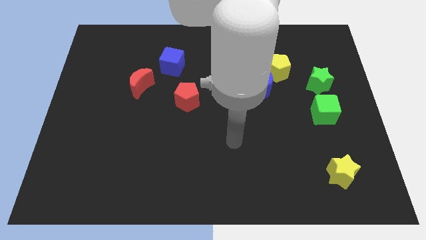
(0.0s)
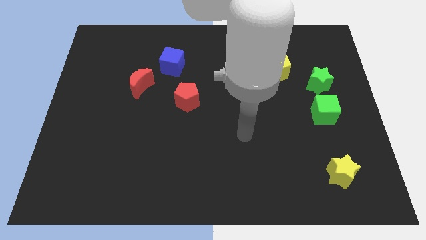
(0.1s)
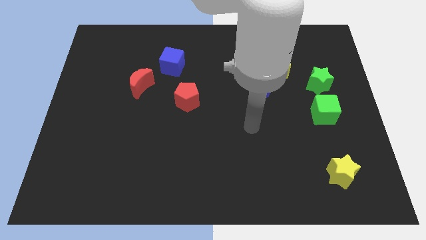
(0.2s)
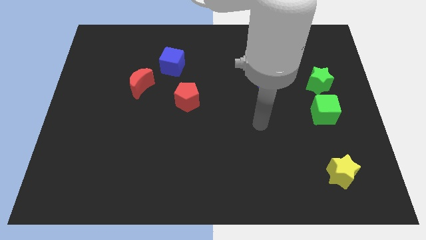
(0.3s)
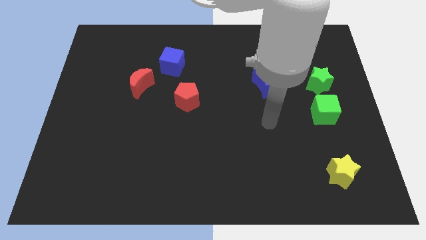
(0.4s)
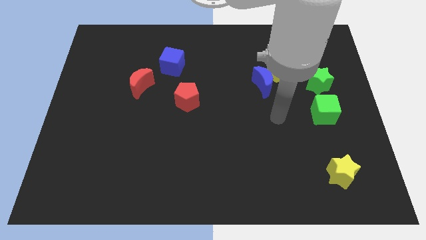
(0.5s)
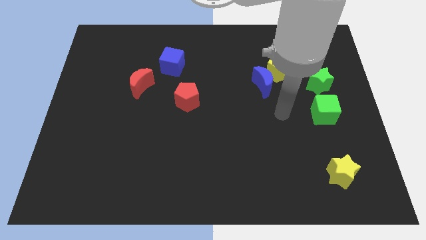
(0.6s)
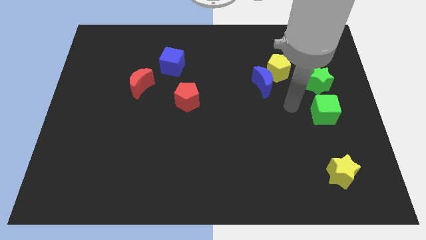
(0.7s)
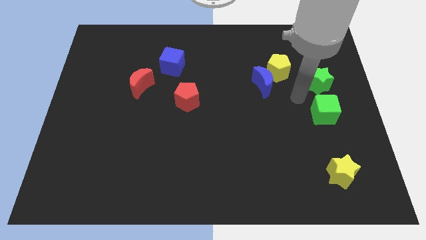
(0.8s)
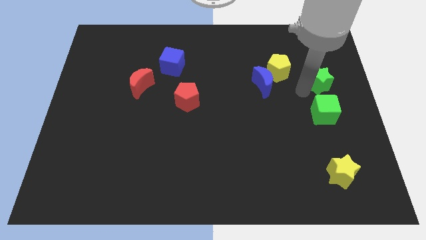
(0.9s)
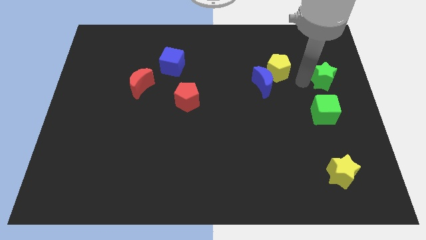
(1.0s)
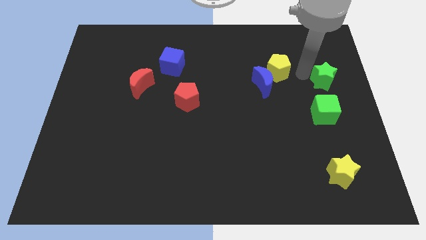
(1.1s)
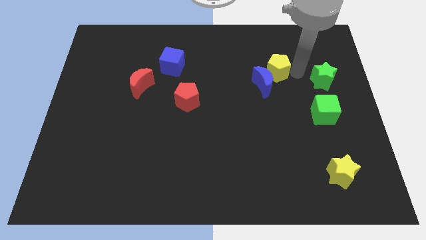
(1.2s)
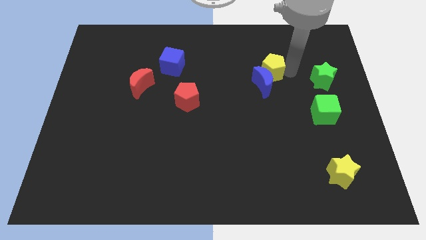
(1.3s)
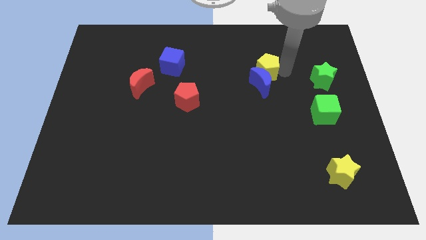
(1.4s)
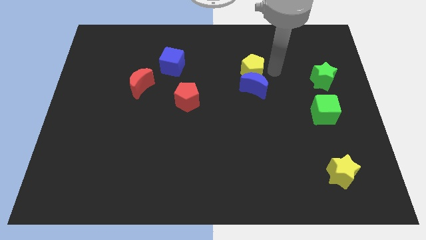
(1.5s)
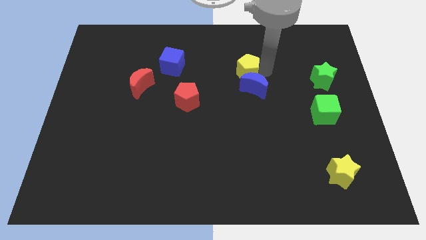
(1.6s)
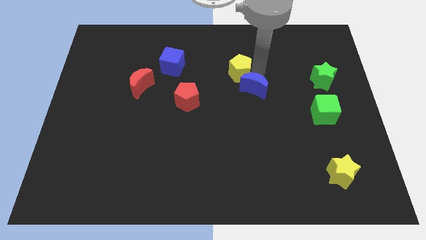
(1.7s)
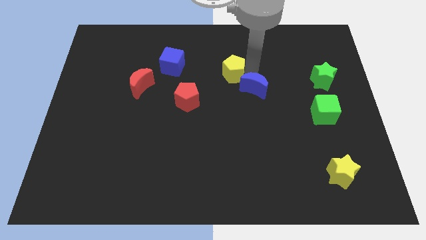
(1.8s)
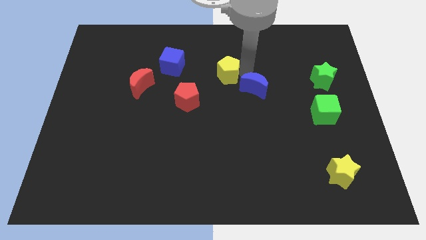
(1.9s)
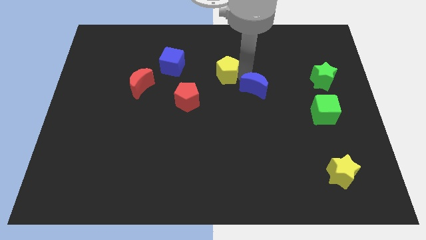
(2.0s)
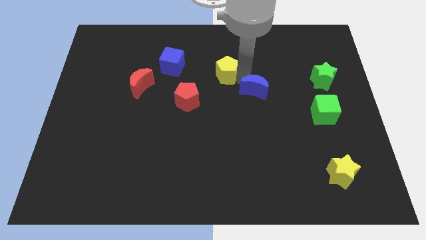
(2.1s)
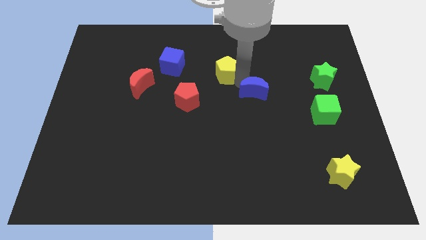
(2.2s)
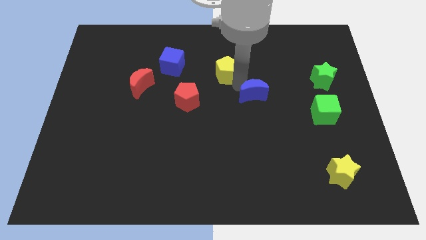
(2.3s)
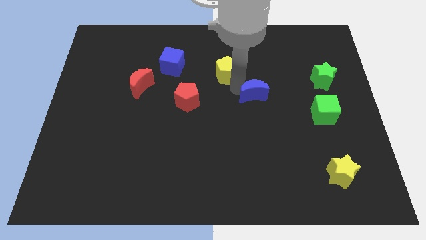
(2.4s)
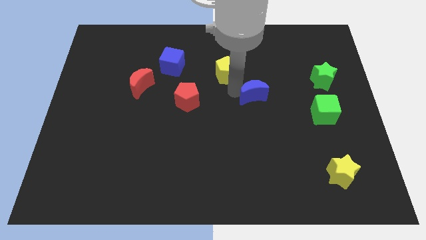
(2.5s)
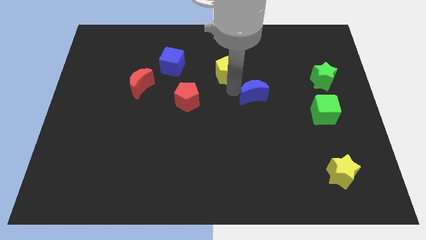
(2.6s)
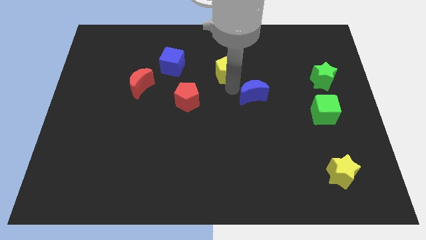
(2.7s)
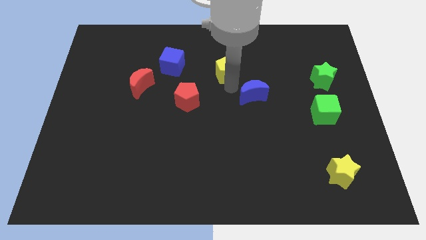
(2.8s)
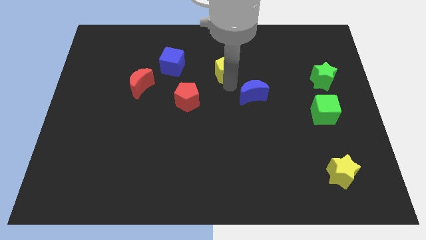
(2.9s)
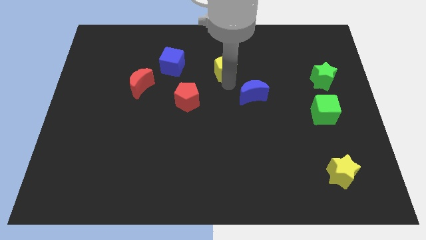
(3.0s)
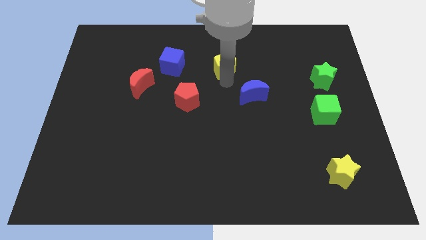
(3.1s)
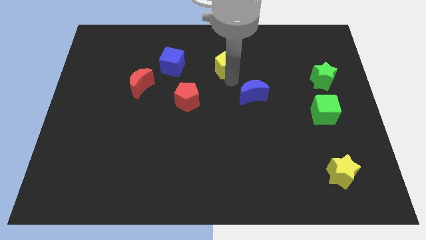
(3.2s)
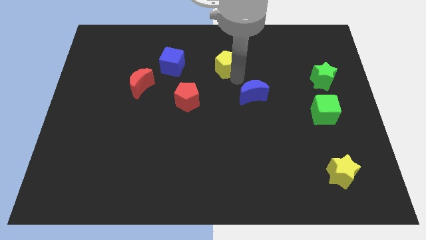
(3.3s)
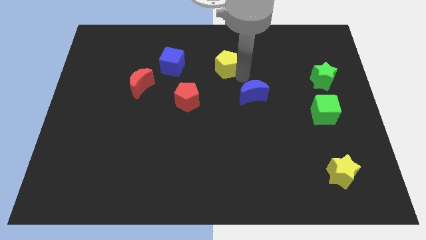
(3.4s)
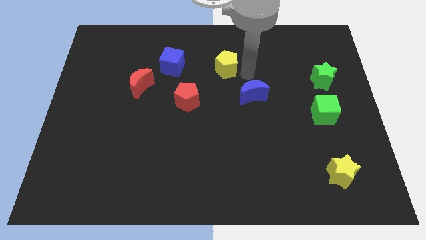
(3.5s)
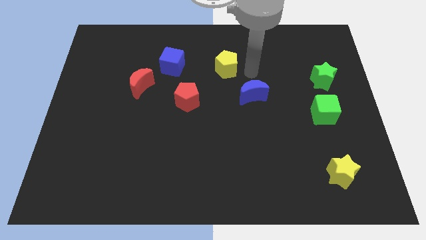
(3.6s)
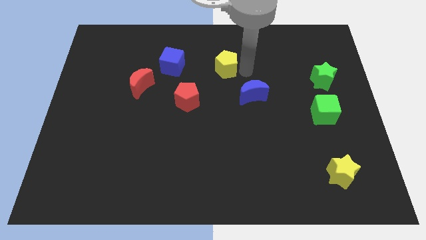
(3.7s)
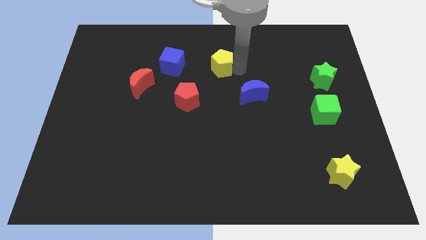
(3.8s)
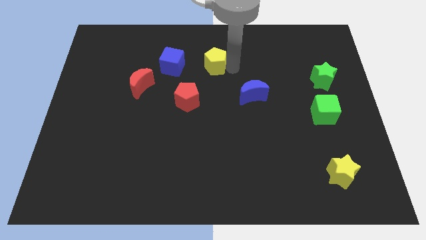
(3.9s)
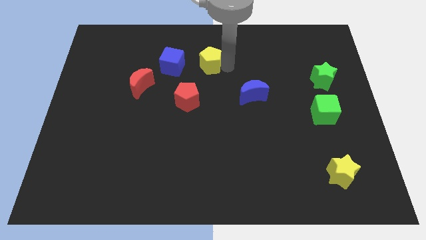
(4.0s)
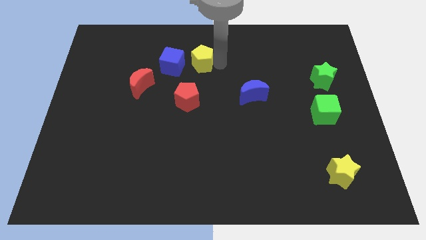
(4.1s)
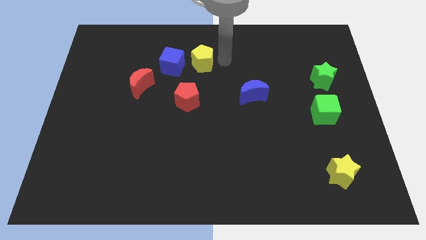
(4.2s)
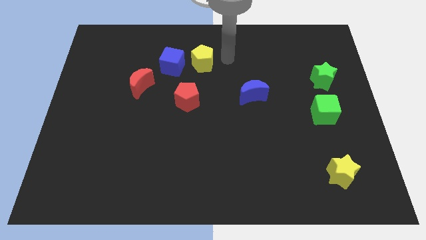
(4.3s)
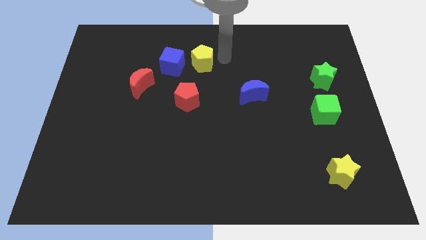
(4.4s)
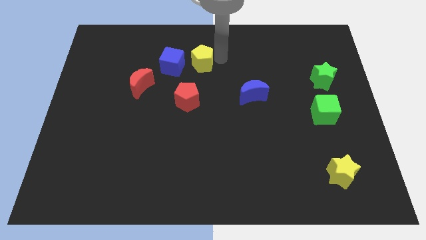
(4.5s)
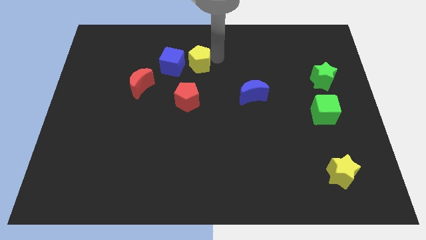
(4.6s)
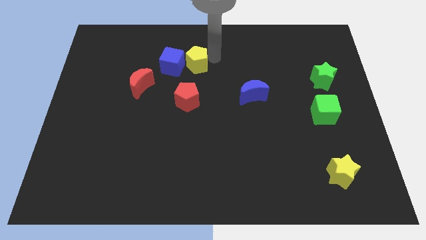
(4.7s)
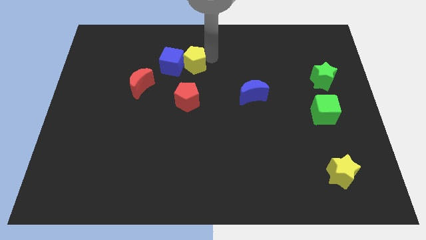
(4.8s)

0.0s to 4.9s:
move the yellow pentagon towards the blue cube

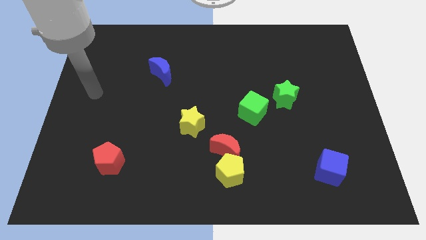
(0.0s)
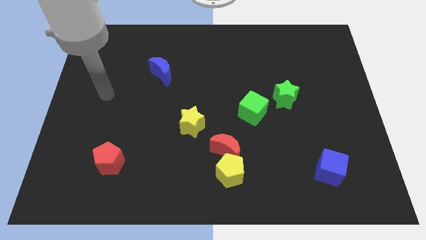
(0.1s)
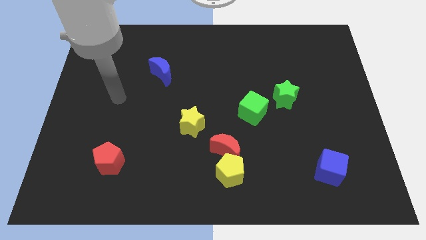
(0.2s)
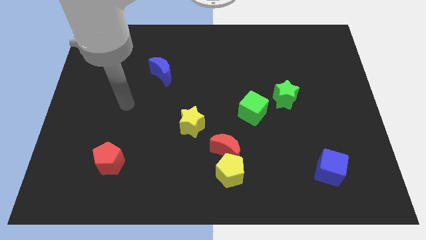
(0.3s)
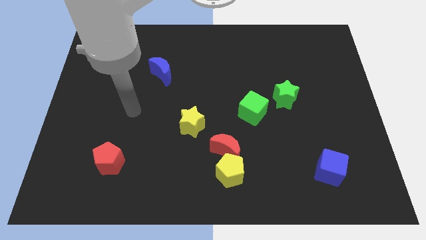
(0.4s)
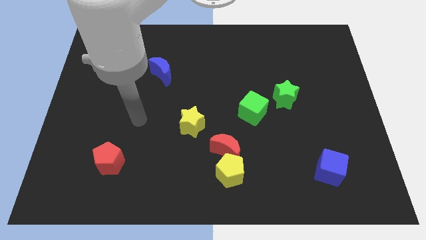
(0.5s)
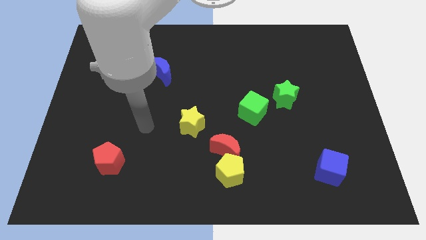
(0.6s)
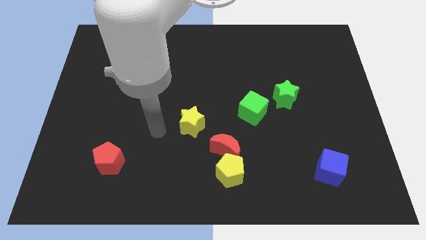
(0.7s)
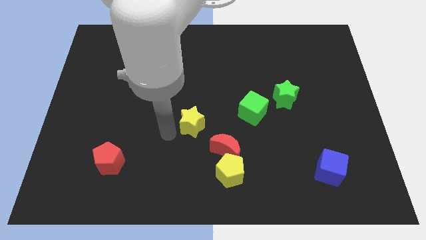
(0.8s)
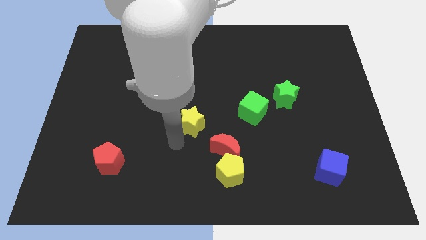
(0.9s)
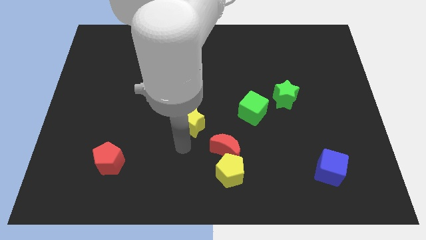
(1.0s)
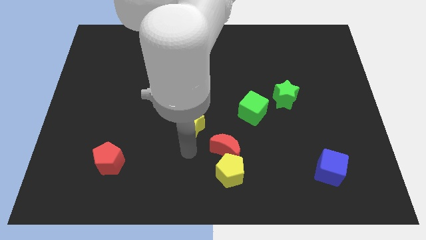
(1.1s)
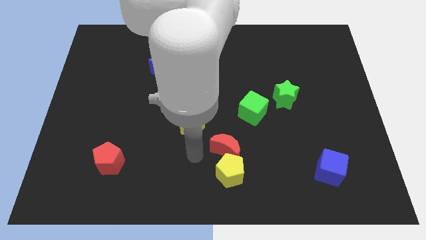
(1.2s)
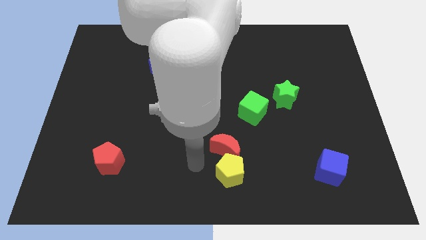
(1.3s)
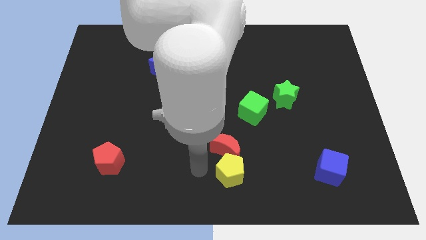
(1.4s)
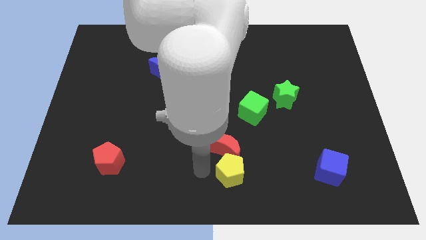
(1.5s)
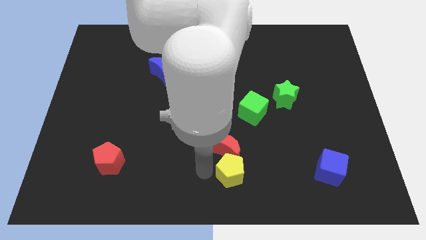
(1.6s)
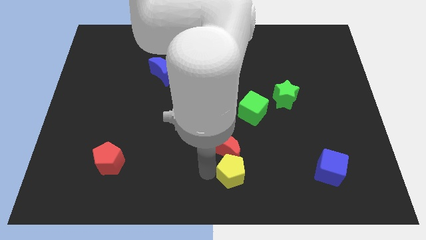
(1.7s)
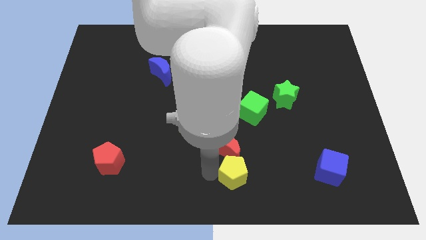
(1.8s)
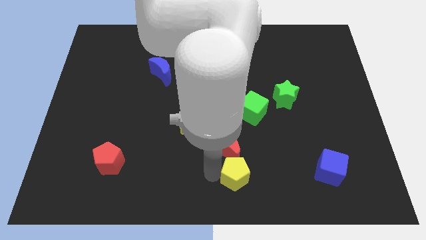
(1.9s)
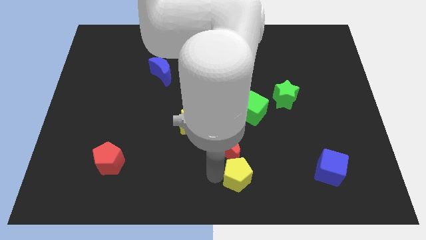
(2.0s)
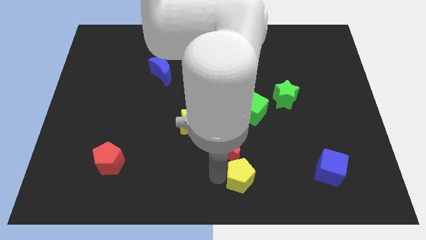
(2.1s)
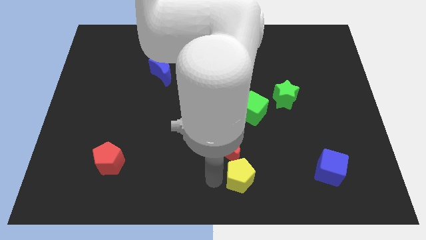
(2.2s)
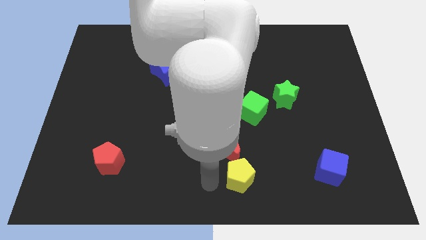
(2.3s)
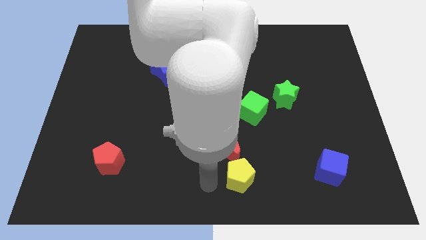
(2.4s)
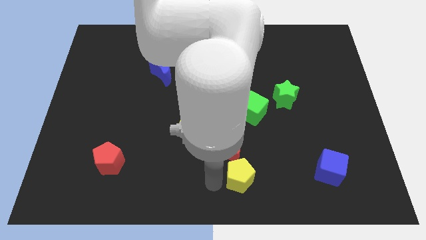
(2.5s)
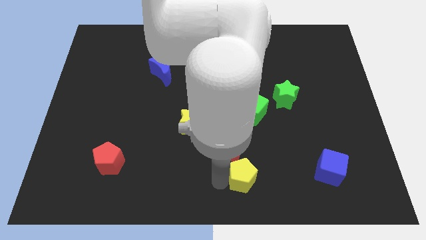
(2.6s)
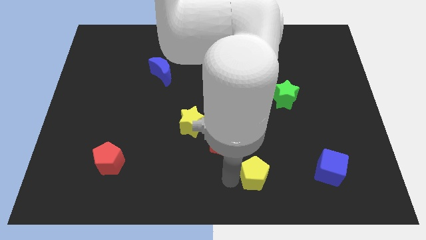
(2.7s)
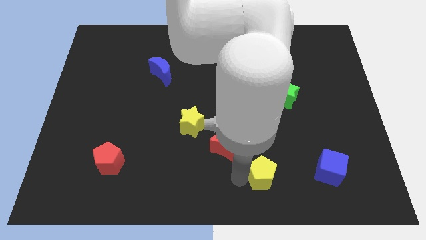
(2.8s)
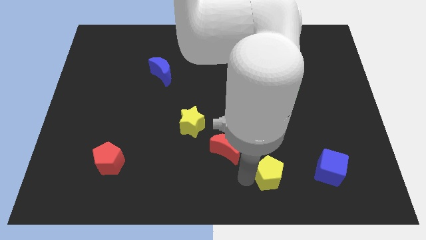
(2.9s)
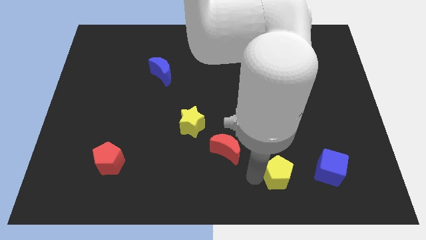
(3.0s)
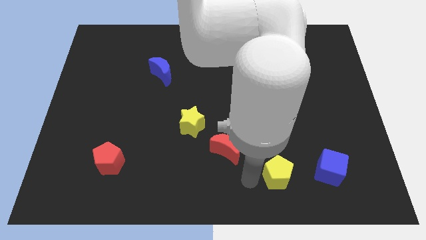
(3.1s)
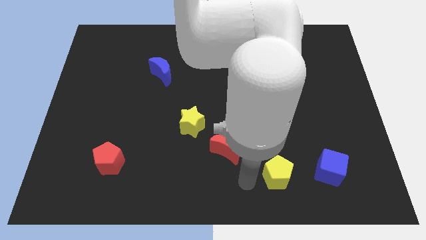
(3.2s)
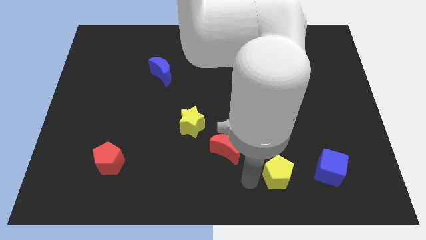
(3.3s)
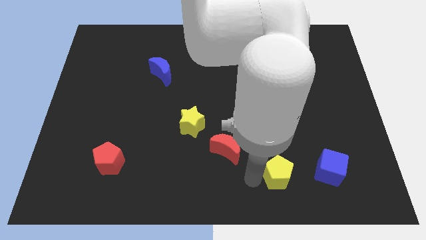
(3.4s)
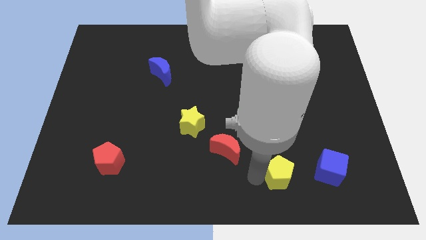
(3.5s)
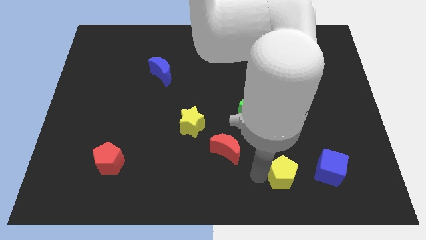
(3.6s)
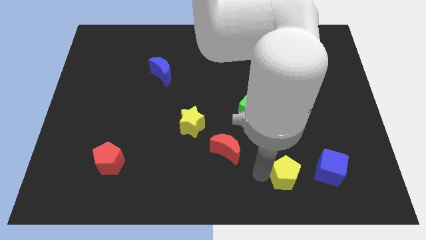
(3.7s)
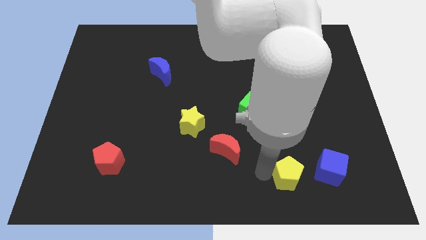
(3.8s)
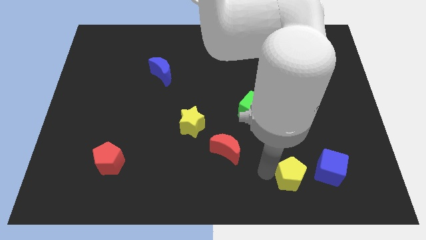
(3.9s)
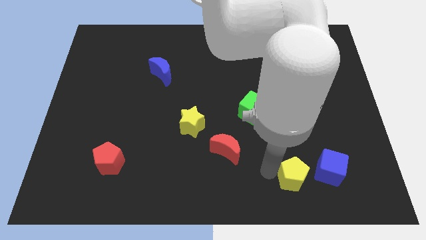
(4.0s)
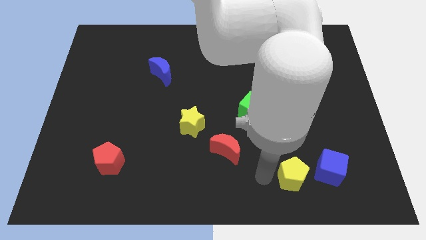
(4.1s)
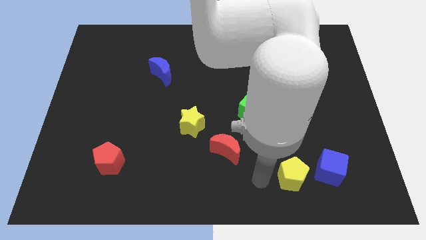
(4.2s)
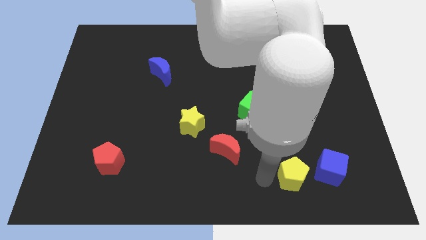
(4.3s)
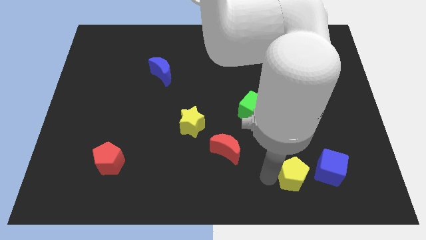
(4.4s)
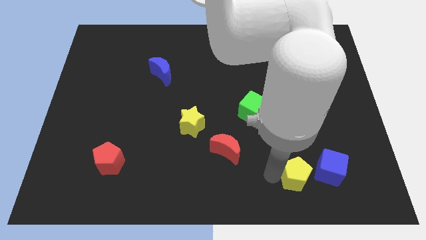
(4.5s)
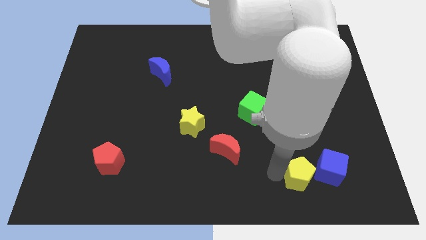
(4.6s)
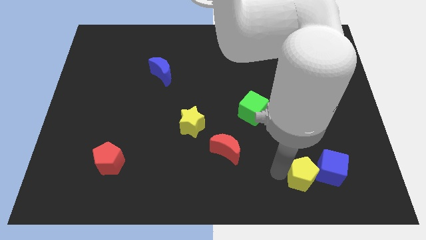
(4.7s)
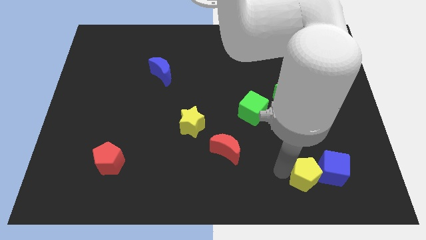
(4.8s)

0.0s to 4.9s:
move the yellow pentagon next to the blue cube
